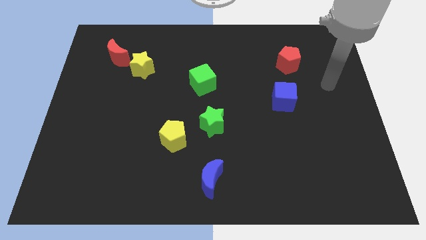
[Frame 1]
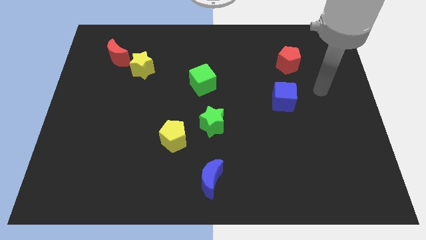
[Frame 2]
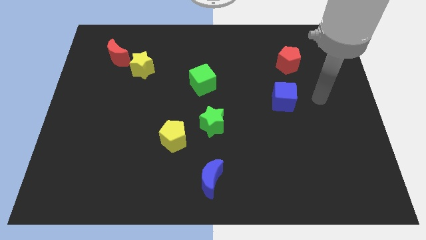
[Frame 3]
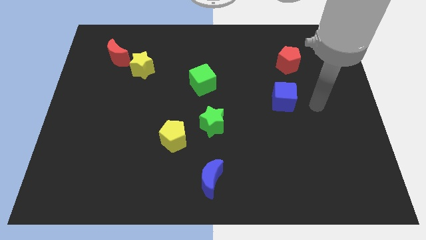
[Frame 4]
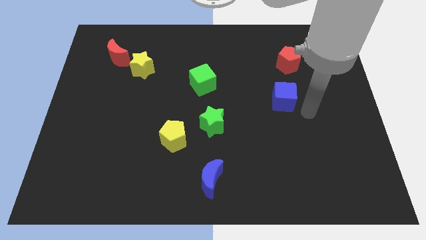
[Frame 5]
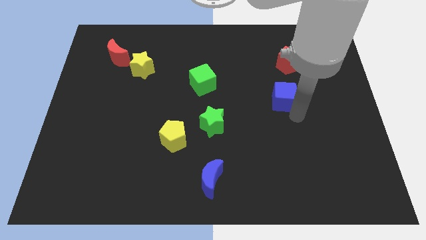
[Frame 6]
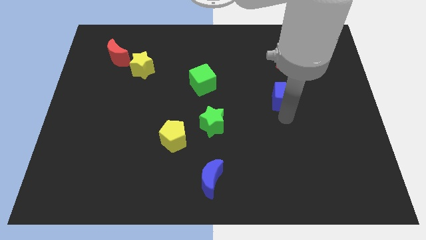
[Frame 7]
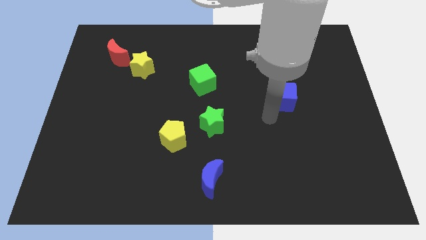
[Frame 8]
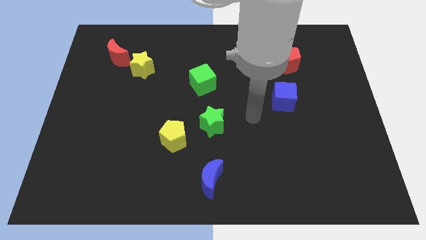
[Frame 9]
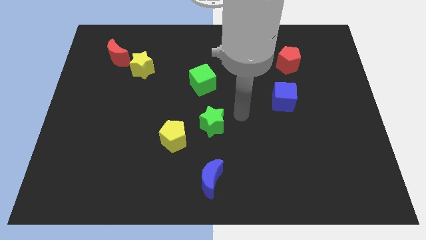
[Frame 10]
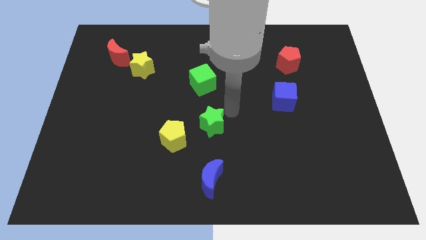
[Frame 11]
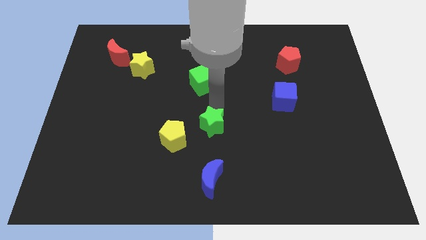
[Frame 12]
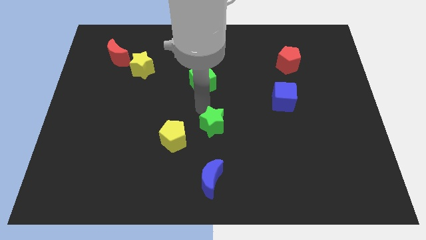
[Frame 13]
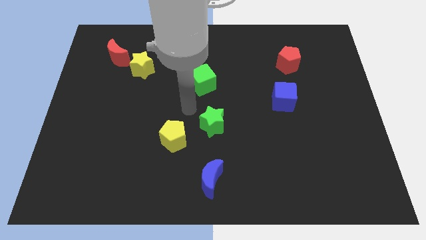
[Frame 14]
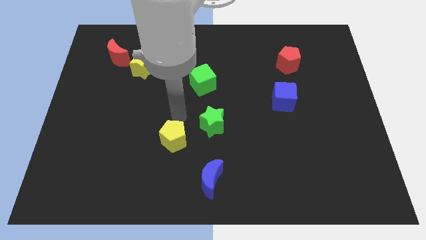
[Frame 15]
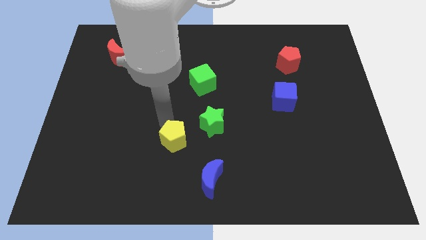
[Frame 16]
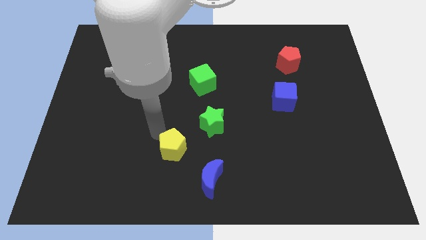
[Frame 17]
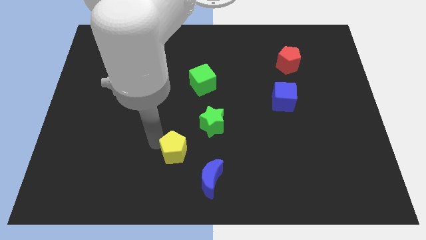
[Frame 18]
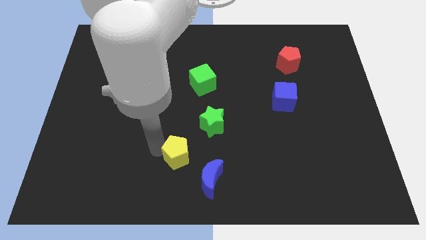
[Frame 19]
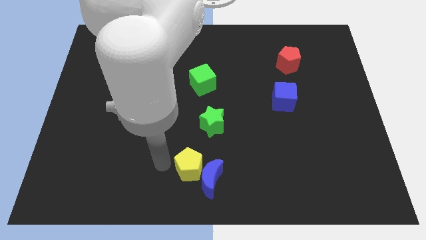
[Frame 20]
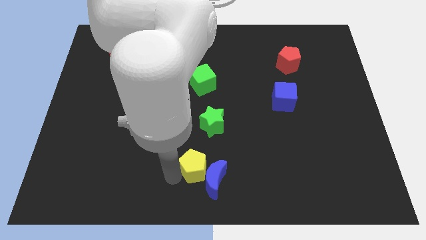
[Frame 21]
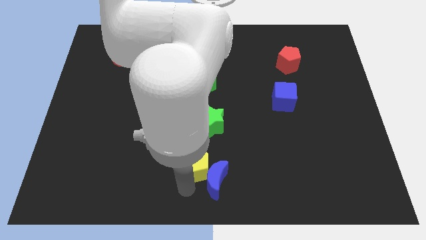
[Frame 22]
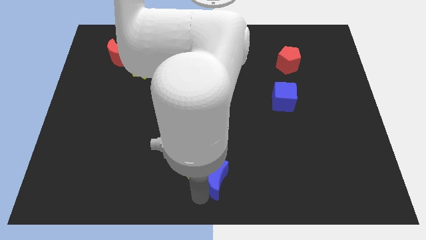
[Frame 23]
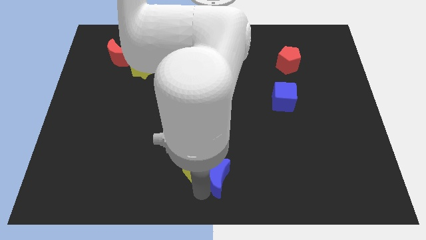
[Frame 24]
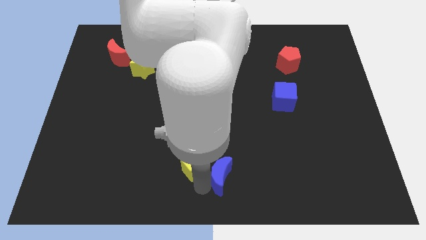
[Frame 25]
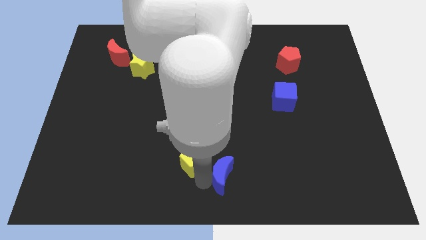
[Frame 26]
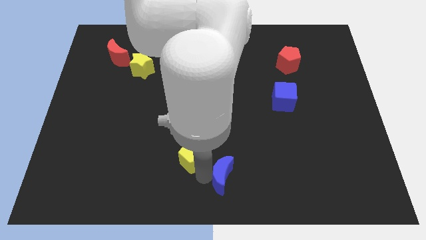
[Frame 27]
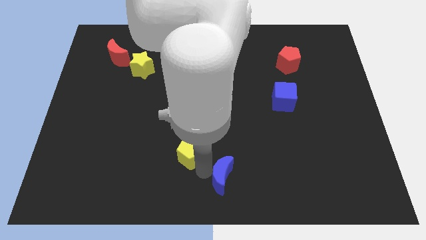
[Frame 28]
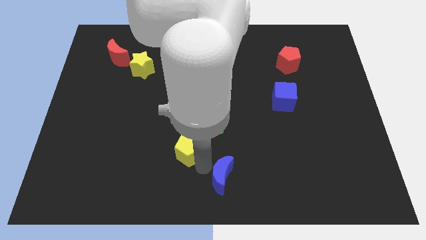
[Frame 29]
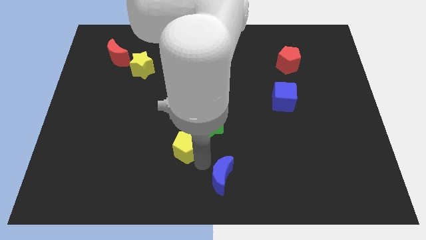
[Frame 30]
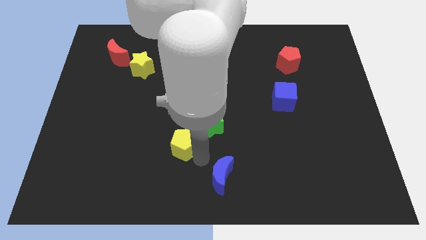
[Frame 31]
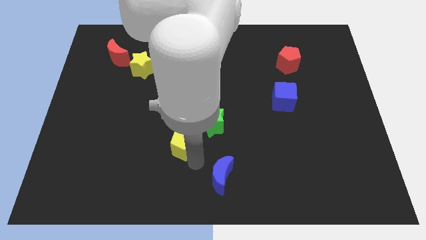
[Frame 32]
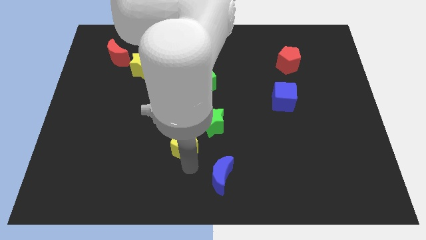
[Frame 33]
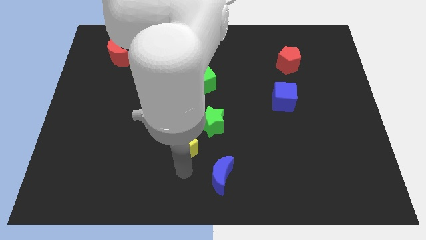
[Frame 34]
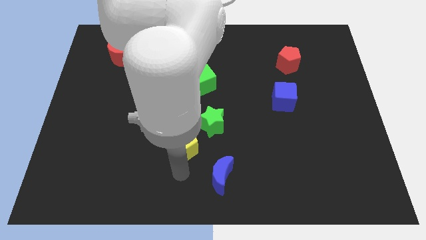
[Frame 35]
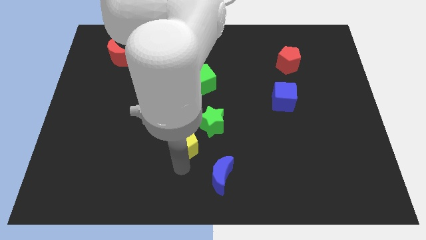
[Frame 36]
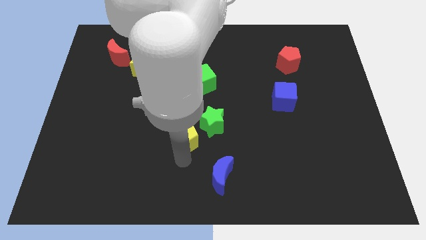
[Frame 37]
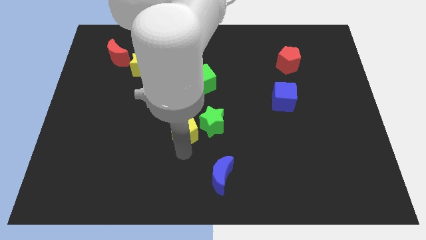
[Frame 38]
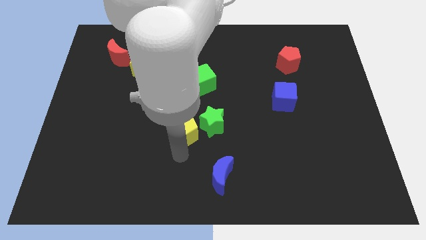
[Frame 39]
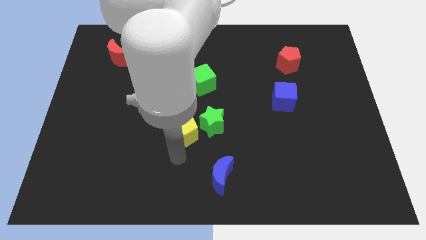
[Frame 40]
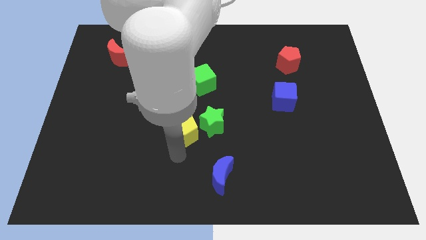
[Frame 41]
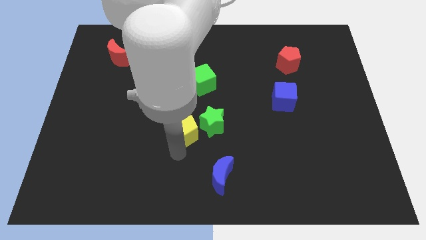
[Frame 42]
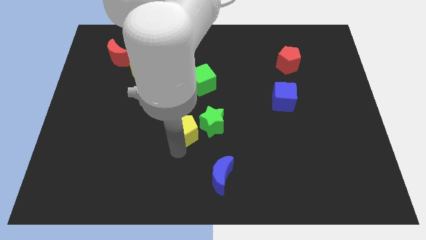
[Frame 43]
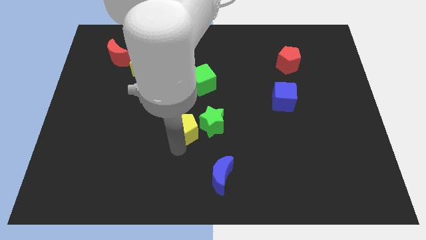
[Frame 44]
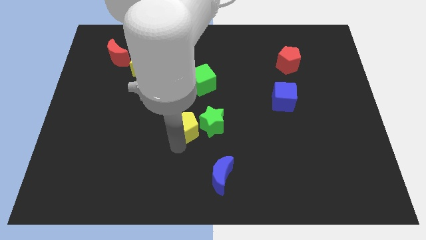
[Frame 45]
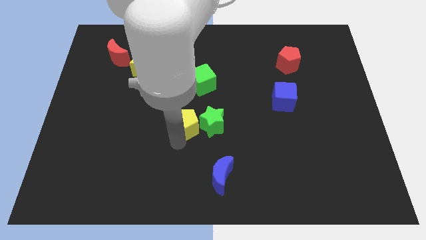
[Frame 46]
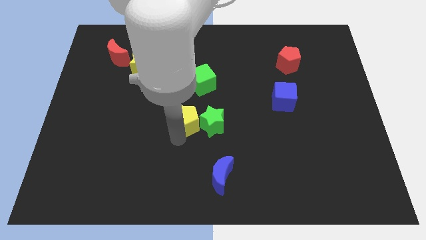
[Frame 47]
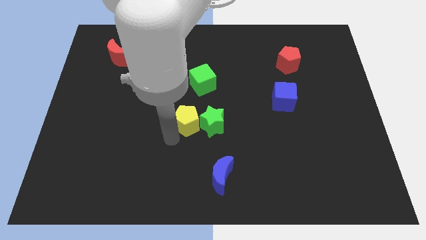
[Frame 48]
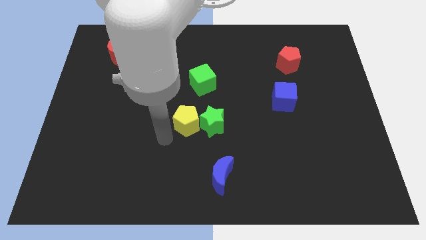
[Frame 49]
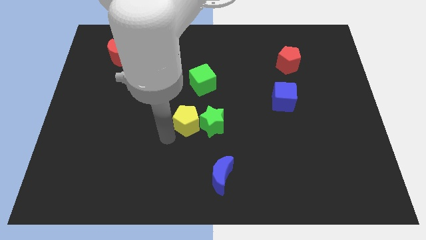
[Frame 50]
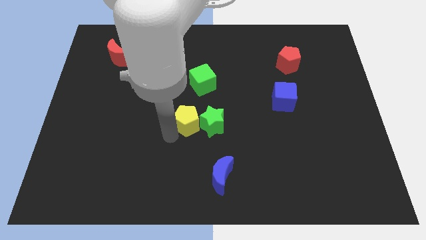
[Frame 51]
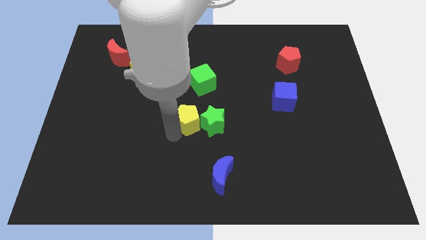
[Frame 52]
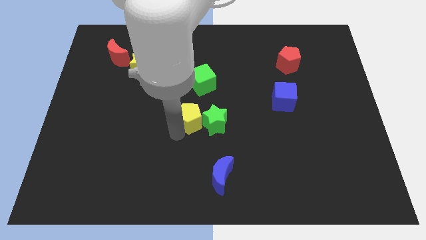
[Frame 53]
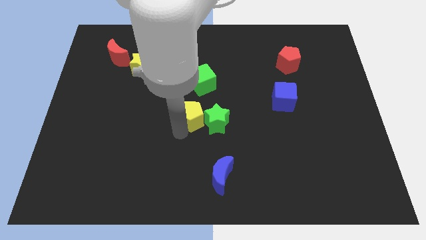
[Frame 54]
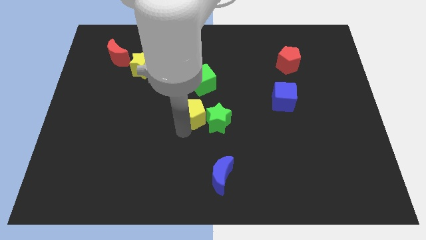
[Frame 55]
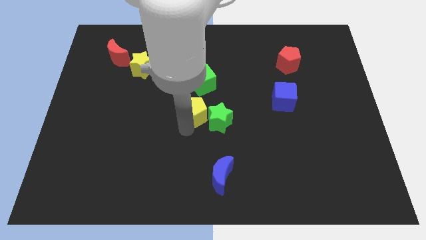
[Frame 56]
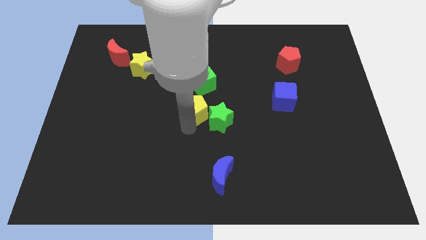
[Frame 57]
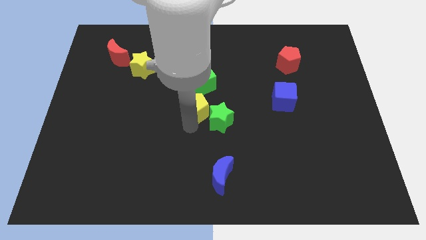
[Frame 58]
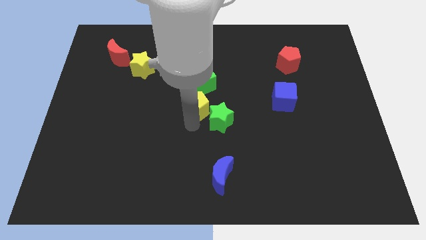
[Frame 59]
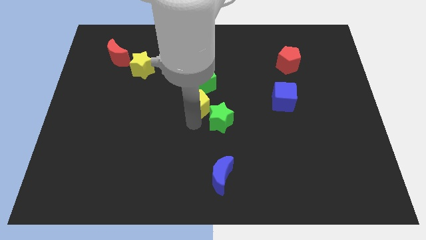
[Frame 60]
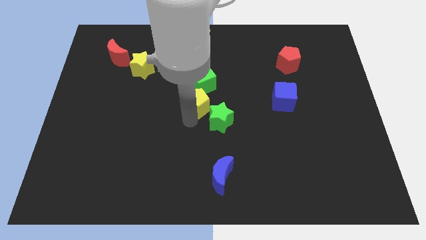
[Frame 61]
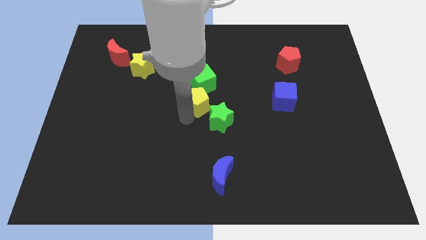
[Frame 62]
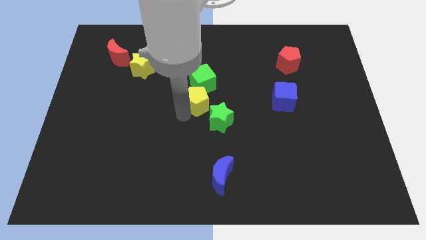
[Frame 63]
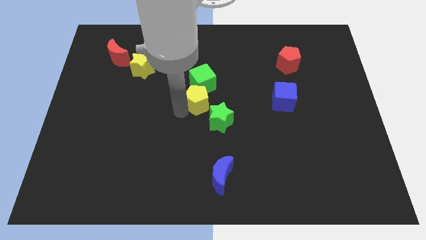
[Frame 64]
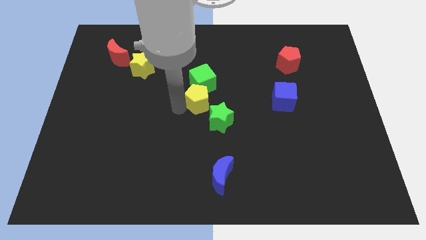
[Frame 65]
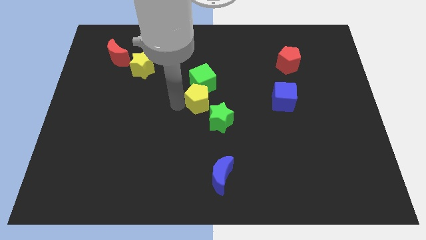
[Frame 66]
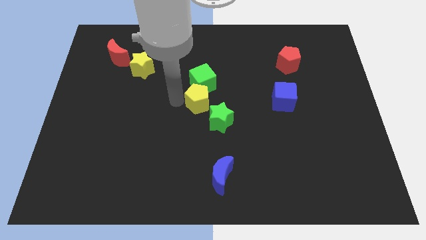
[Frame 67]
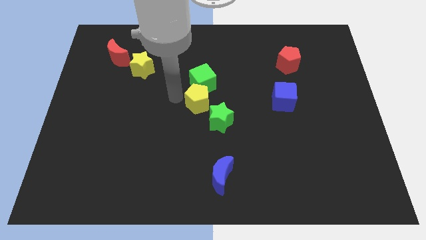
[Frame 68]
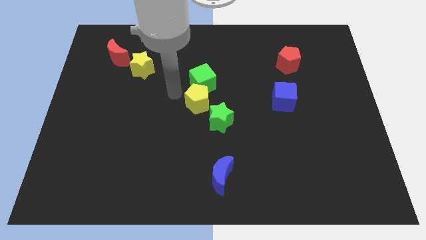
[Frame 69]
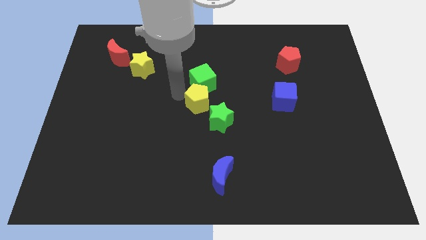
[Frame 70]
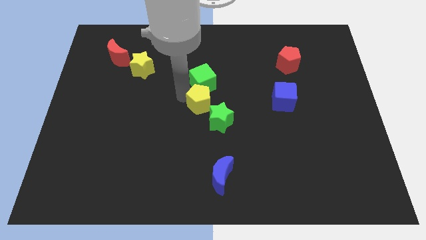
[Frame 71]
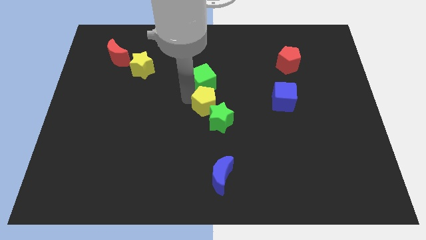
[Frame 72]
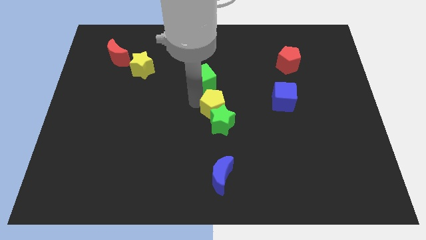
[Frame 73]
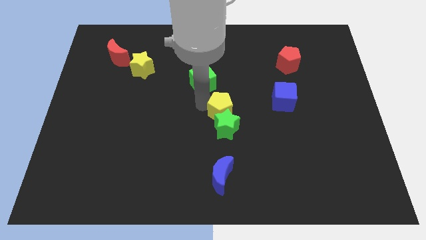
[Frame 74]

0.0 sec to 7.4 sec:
push the yellow pentagon to the top right side of the green star

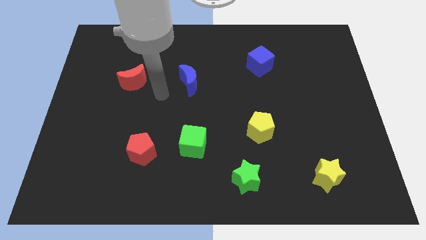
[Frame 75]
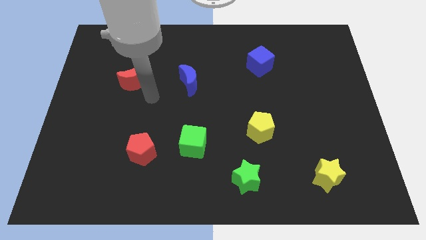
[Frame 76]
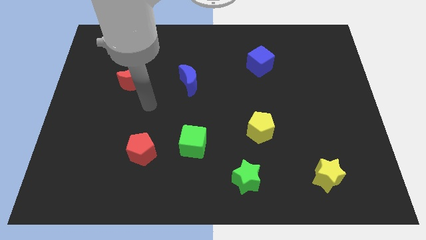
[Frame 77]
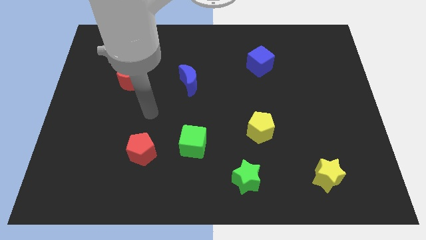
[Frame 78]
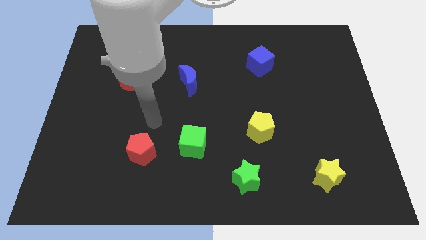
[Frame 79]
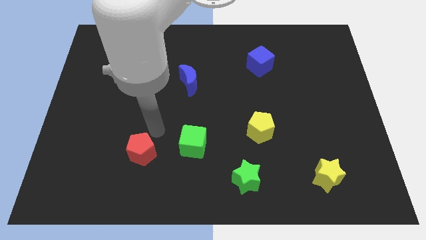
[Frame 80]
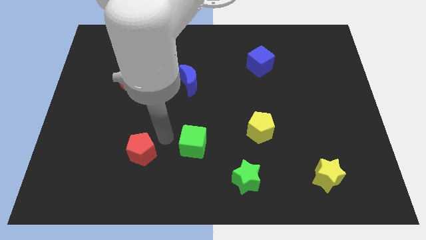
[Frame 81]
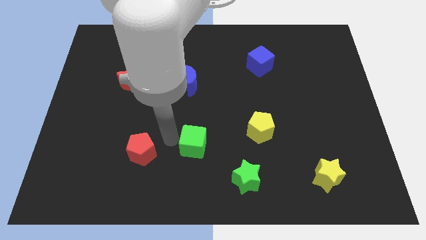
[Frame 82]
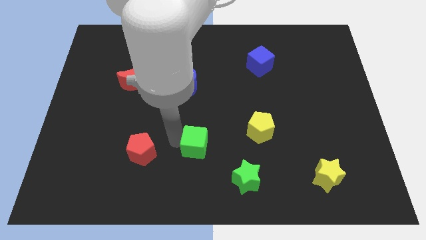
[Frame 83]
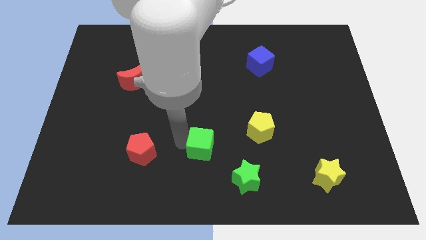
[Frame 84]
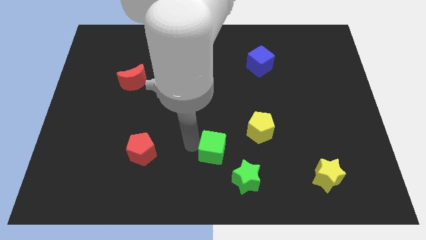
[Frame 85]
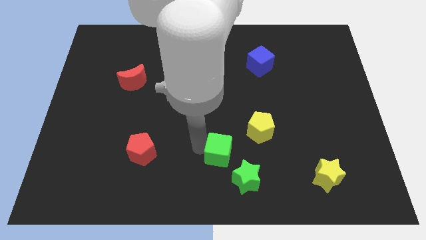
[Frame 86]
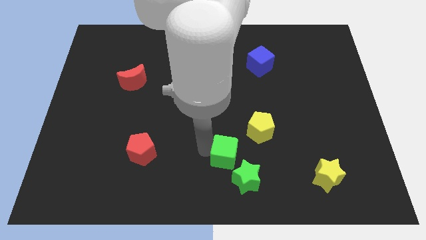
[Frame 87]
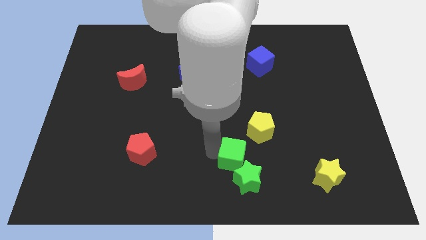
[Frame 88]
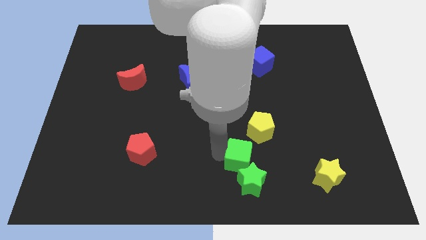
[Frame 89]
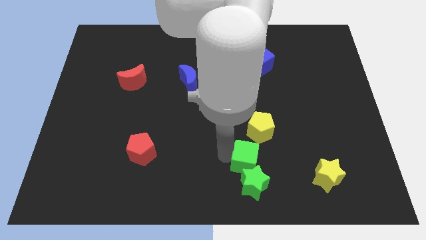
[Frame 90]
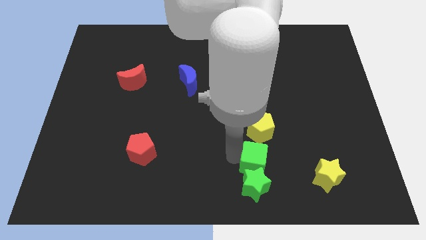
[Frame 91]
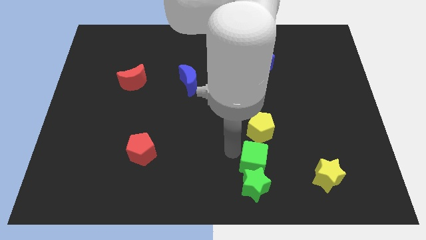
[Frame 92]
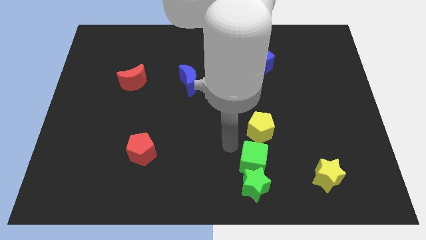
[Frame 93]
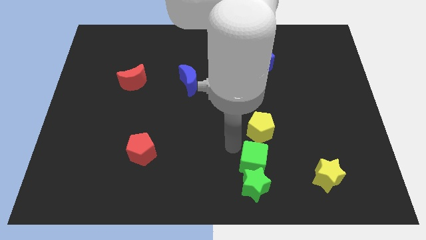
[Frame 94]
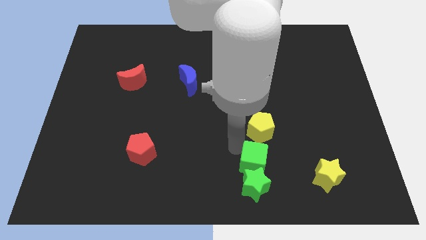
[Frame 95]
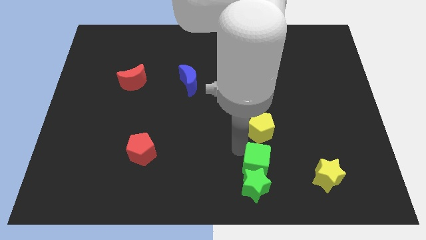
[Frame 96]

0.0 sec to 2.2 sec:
push the green cube to the left side of the yellow star
